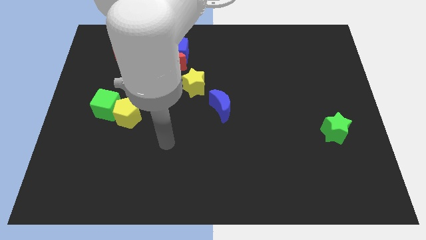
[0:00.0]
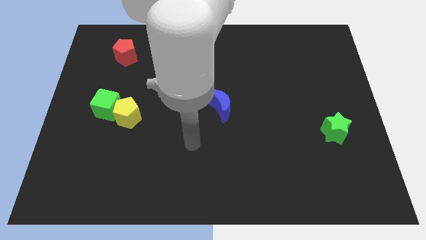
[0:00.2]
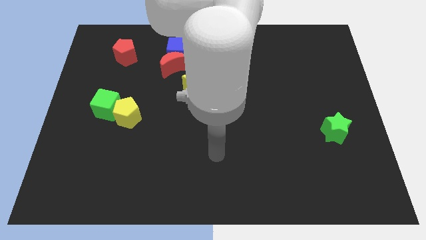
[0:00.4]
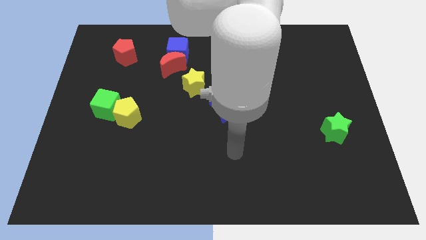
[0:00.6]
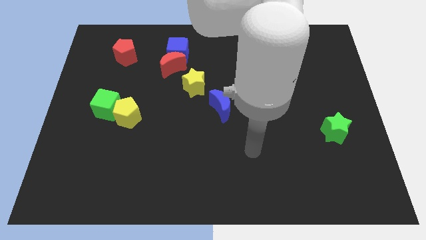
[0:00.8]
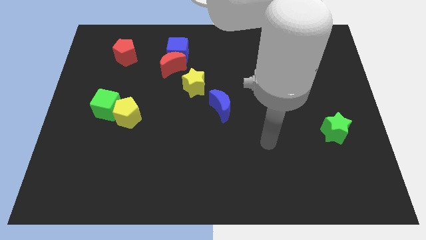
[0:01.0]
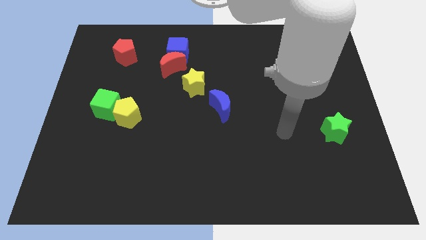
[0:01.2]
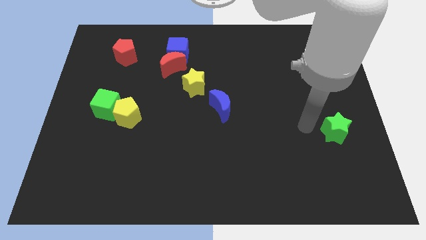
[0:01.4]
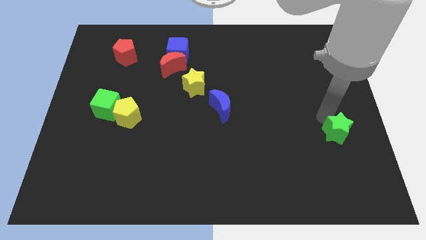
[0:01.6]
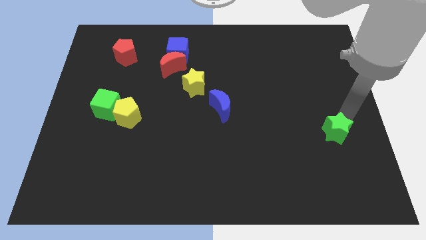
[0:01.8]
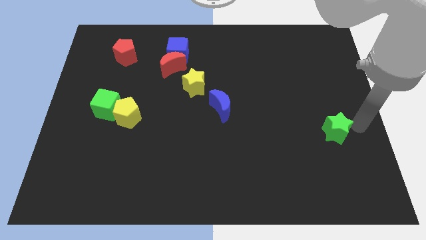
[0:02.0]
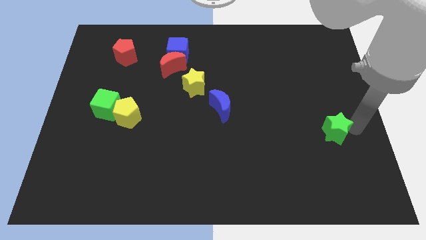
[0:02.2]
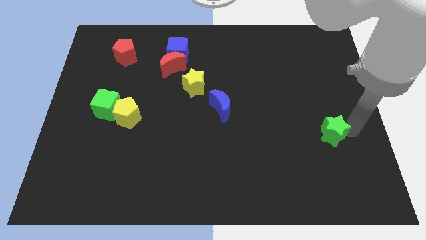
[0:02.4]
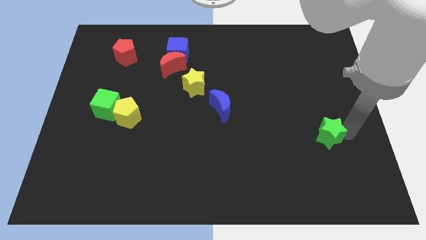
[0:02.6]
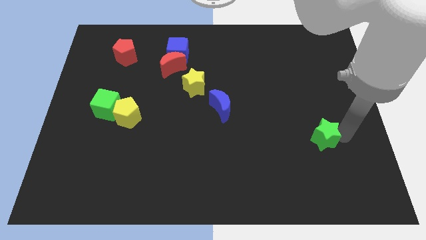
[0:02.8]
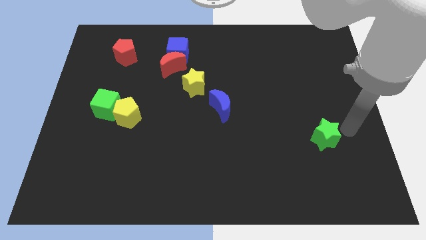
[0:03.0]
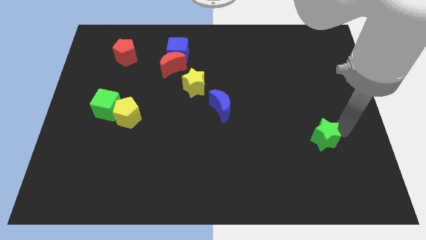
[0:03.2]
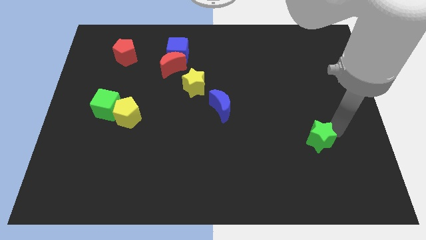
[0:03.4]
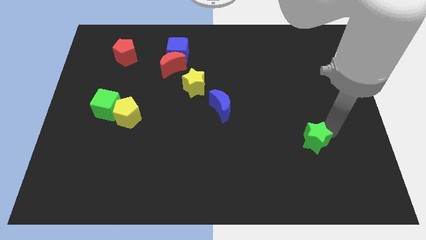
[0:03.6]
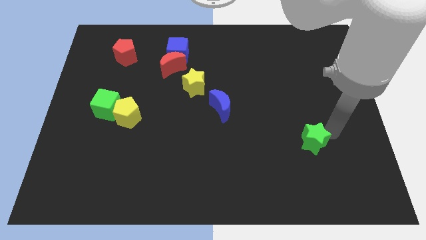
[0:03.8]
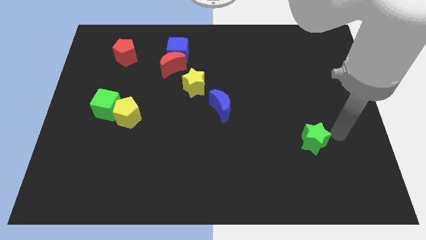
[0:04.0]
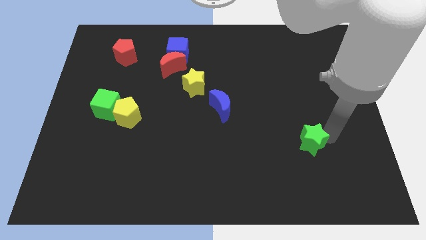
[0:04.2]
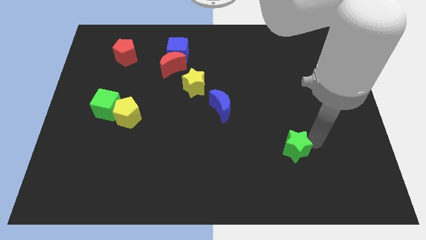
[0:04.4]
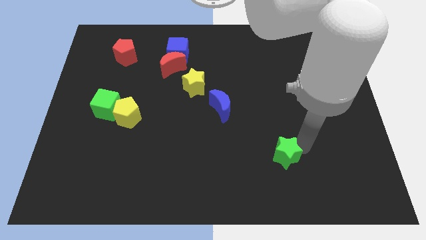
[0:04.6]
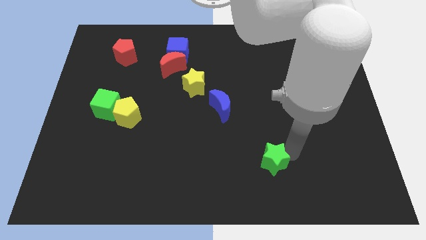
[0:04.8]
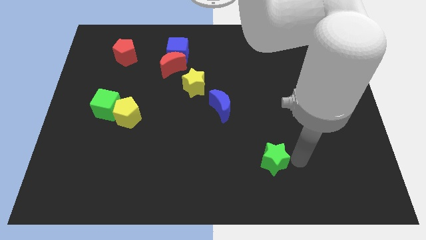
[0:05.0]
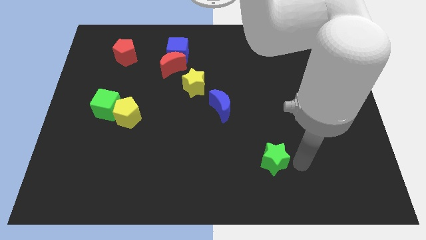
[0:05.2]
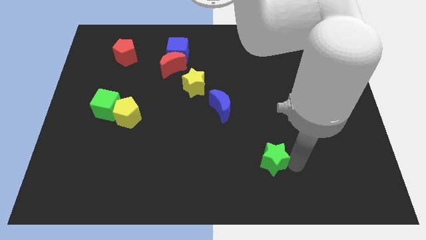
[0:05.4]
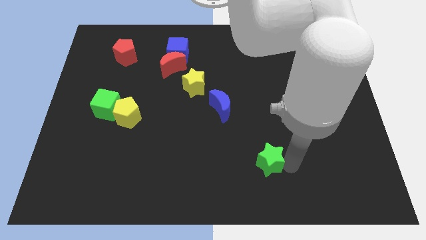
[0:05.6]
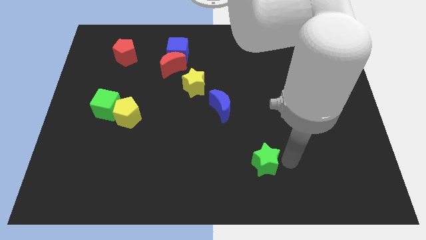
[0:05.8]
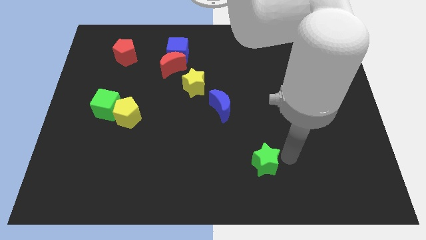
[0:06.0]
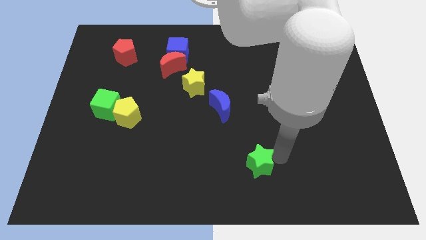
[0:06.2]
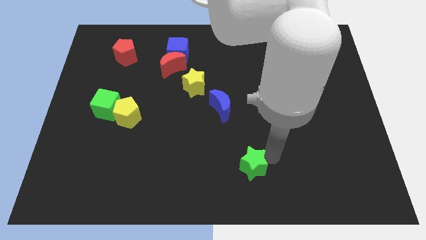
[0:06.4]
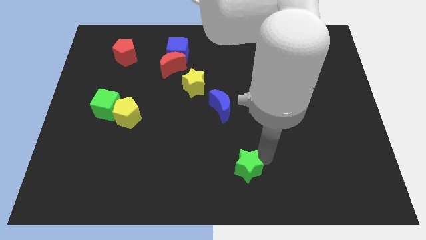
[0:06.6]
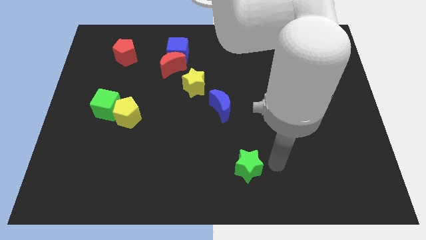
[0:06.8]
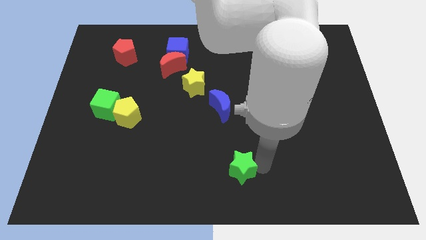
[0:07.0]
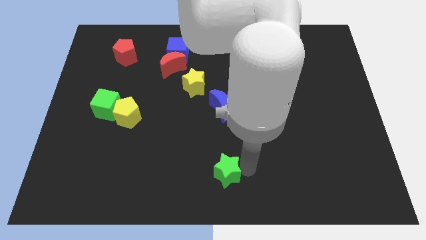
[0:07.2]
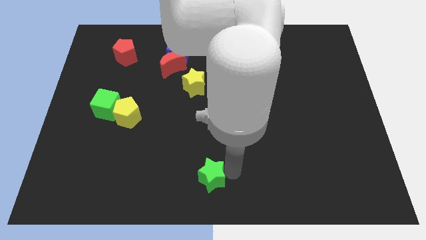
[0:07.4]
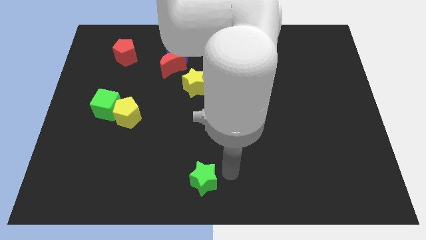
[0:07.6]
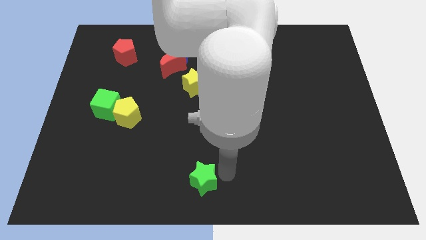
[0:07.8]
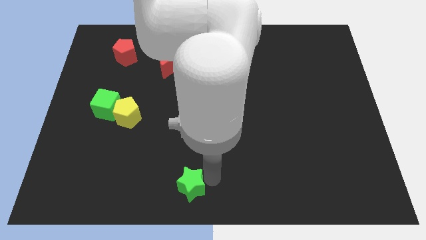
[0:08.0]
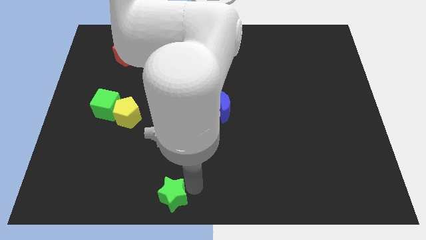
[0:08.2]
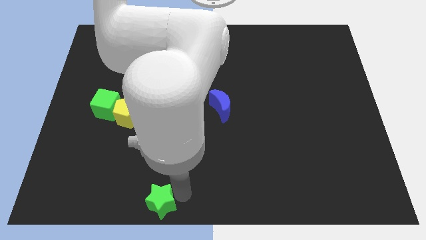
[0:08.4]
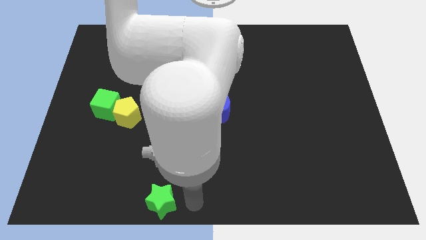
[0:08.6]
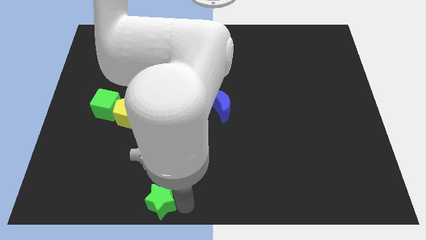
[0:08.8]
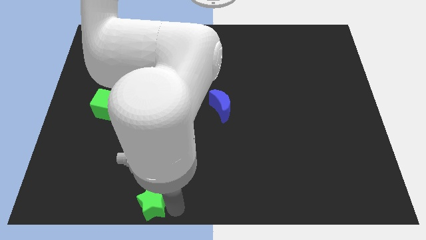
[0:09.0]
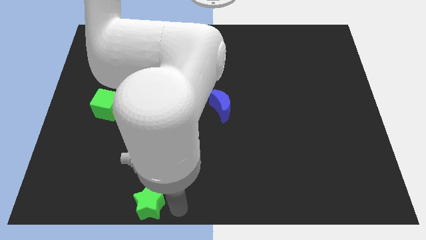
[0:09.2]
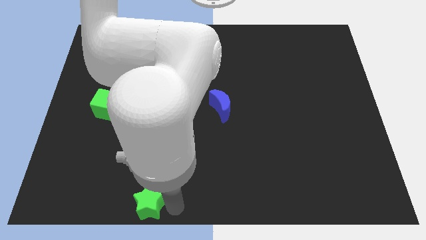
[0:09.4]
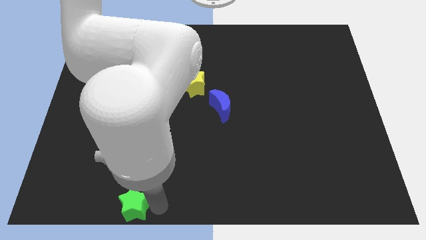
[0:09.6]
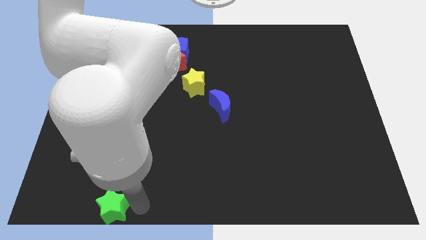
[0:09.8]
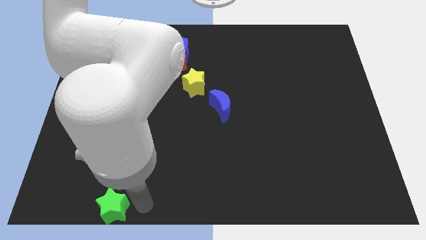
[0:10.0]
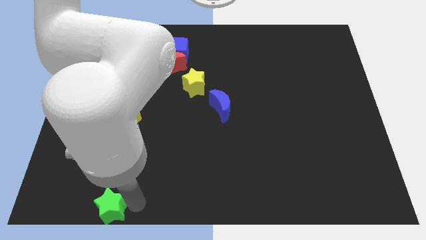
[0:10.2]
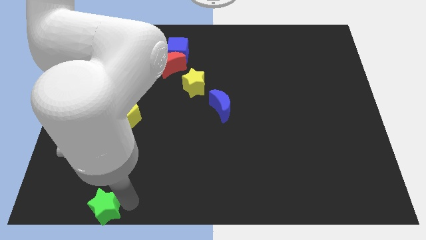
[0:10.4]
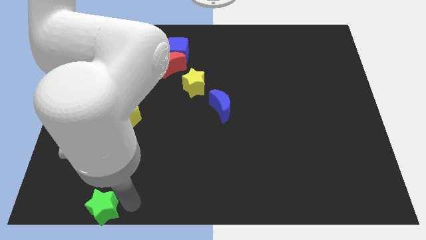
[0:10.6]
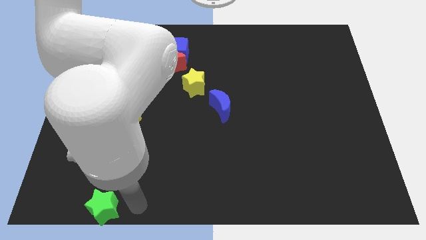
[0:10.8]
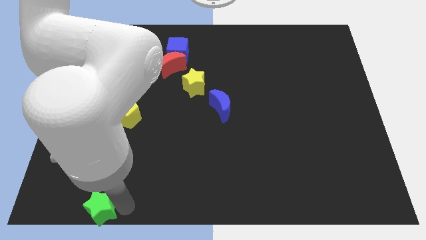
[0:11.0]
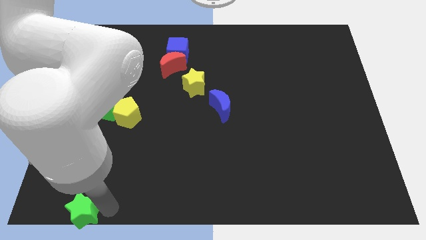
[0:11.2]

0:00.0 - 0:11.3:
put the green star to the bottom left of the board

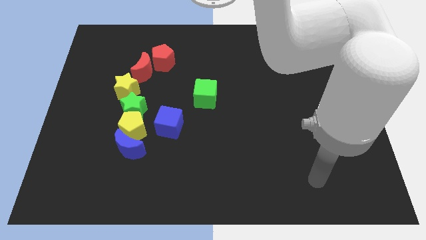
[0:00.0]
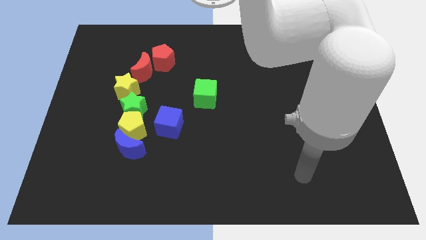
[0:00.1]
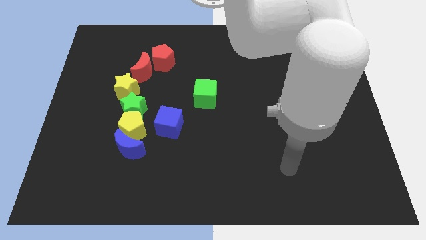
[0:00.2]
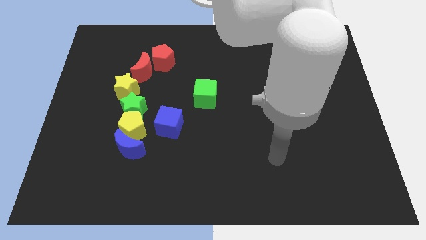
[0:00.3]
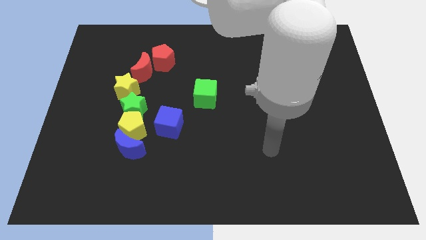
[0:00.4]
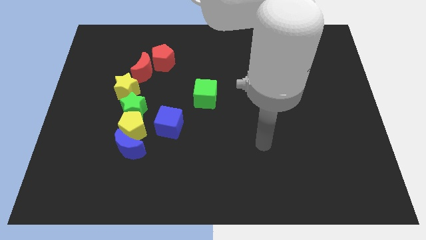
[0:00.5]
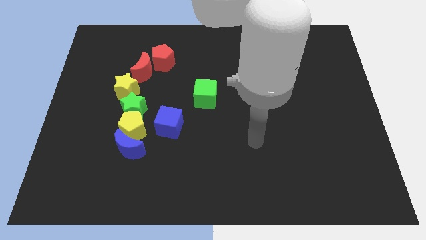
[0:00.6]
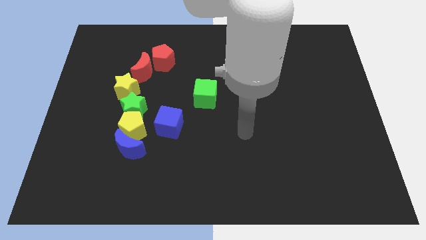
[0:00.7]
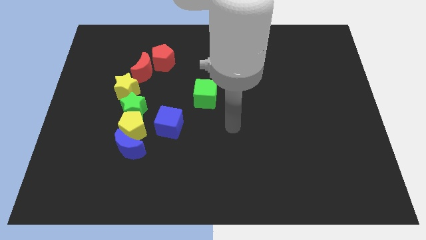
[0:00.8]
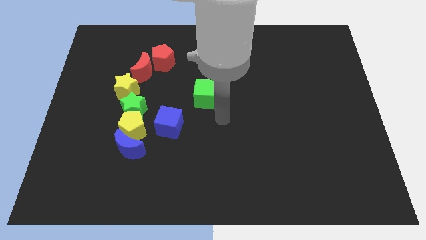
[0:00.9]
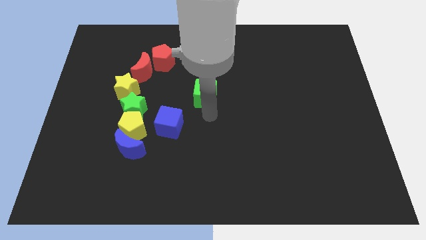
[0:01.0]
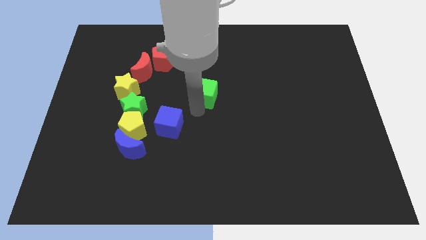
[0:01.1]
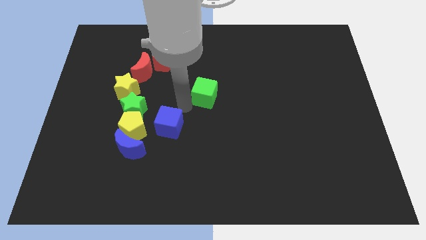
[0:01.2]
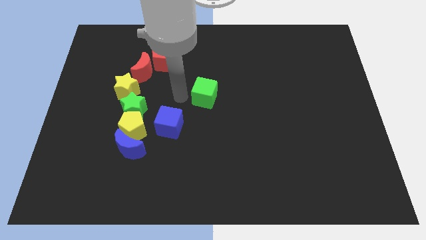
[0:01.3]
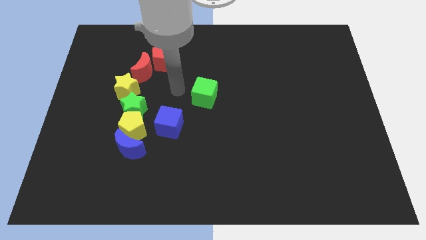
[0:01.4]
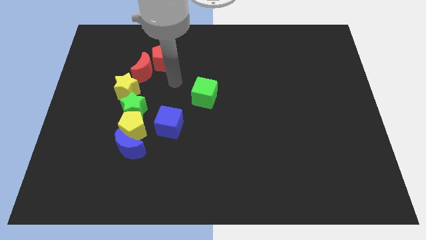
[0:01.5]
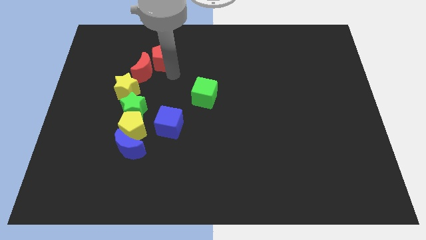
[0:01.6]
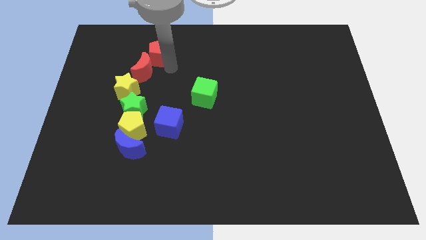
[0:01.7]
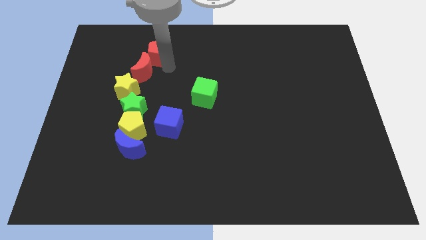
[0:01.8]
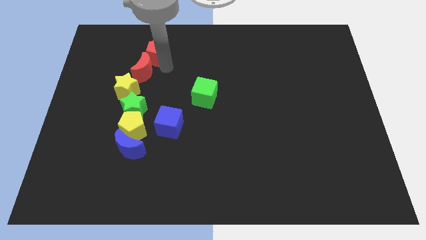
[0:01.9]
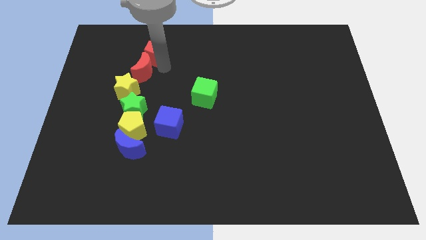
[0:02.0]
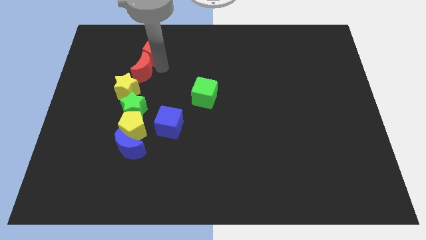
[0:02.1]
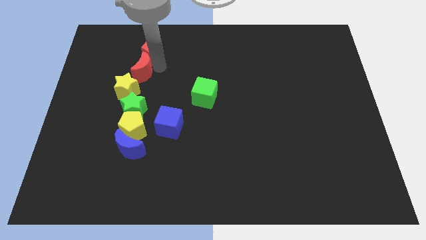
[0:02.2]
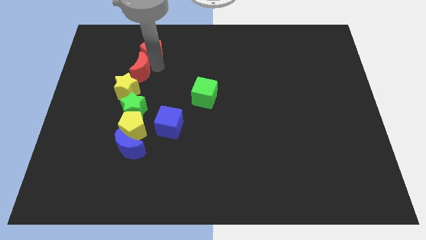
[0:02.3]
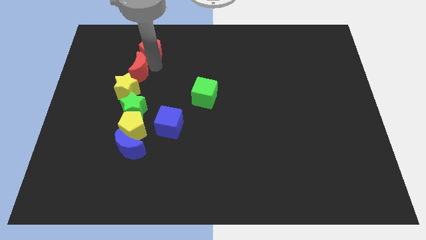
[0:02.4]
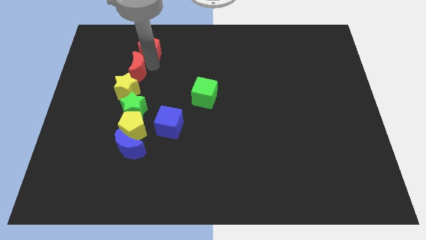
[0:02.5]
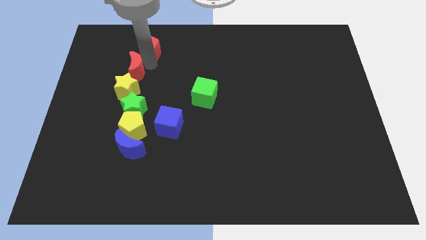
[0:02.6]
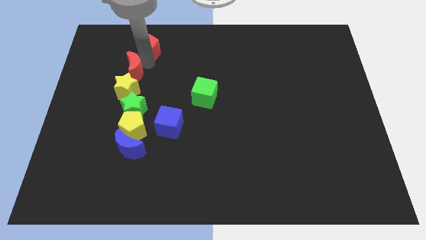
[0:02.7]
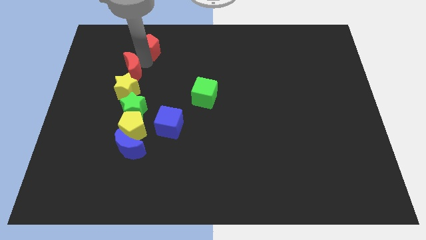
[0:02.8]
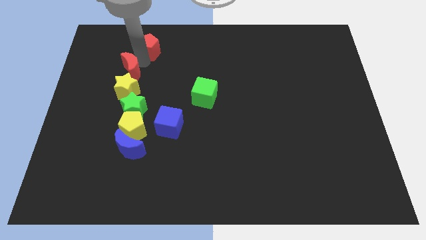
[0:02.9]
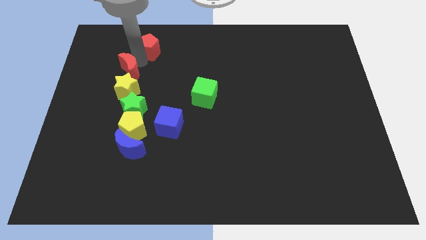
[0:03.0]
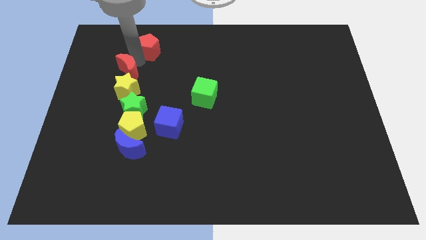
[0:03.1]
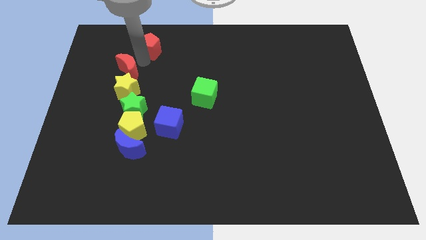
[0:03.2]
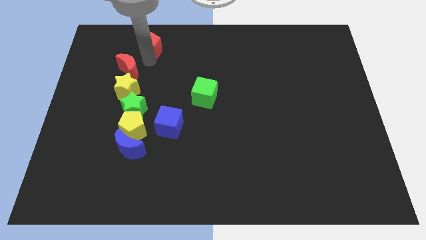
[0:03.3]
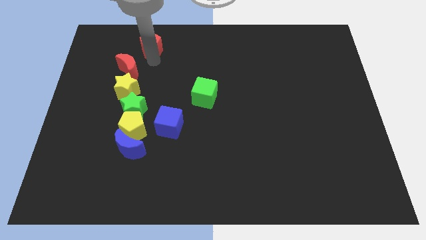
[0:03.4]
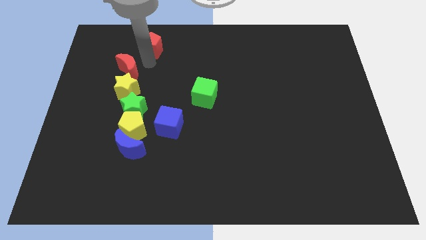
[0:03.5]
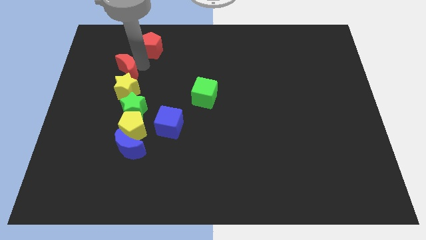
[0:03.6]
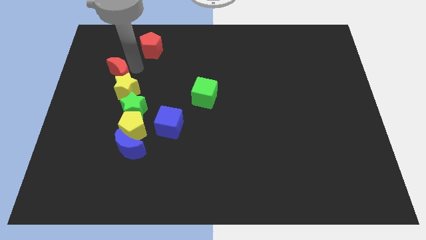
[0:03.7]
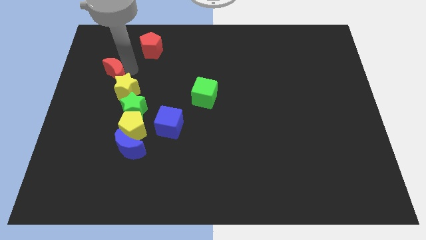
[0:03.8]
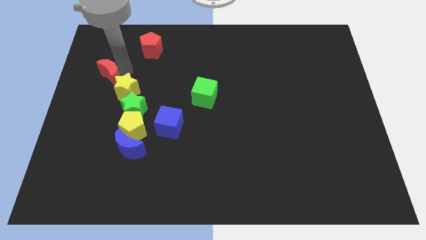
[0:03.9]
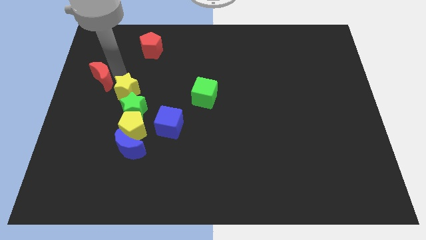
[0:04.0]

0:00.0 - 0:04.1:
push the red moon to the left side
